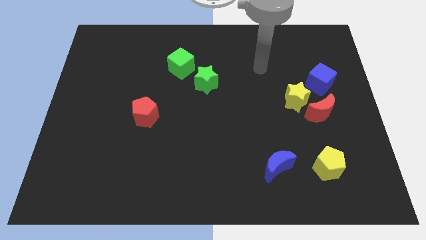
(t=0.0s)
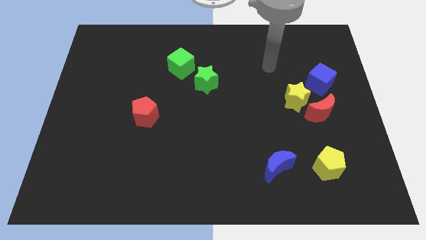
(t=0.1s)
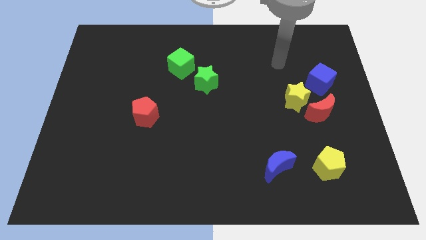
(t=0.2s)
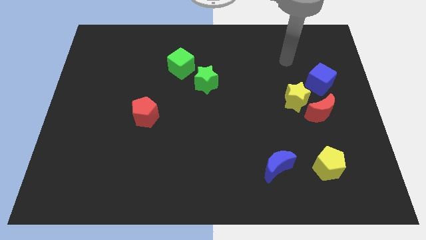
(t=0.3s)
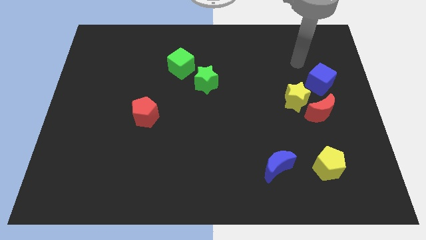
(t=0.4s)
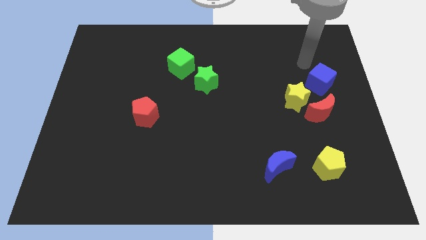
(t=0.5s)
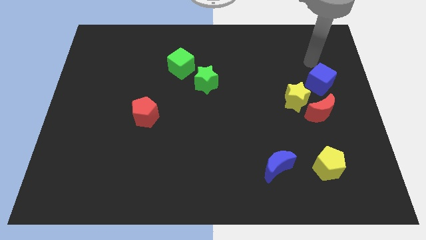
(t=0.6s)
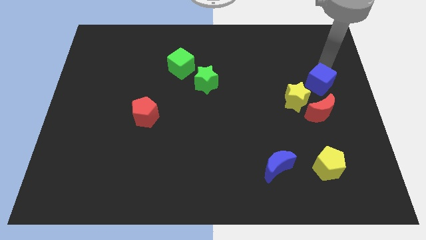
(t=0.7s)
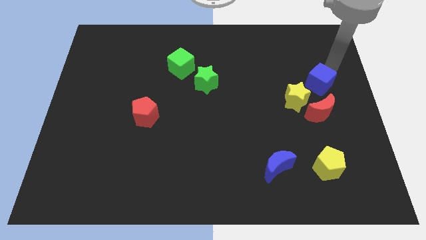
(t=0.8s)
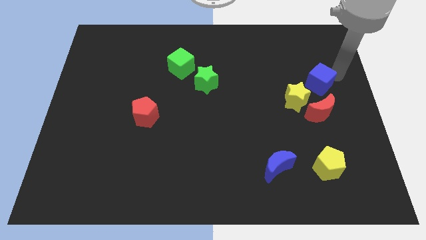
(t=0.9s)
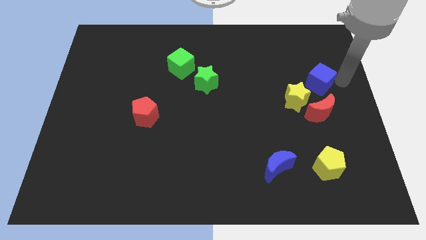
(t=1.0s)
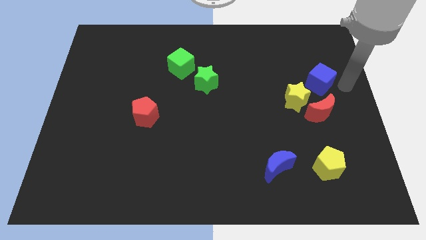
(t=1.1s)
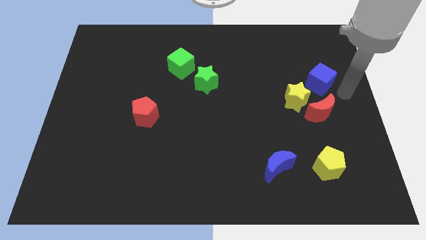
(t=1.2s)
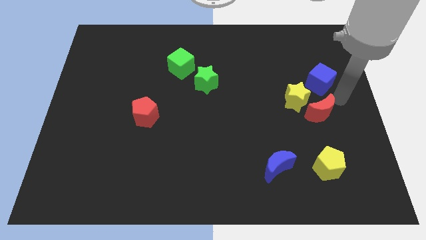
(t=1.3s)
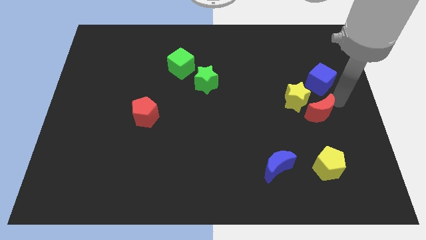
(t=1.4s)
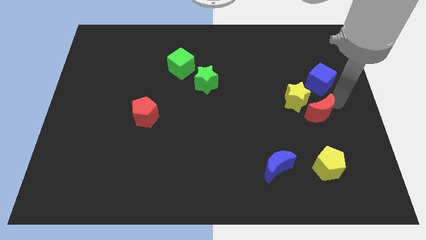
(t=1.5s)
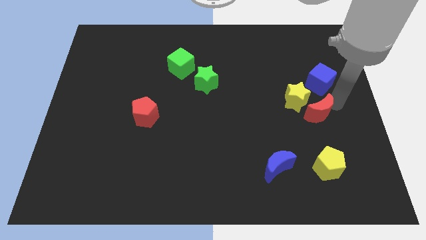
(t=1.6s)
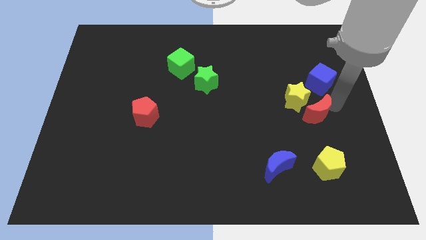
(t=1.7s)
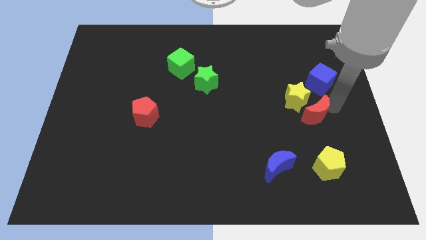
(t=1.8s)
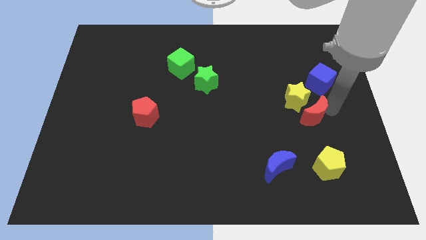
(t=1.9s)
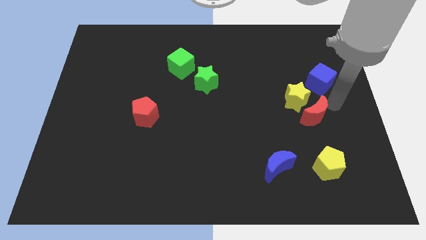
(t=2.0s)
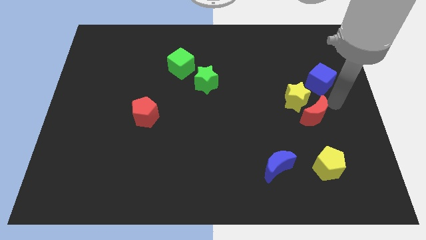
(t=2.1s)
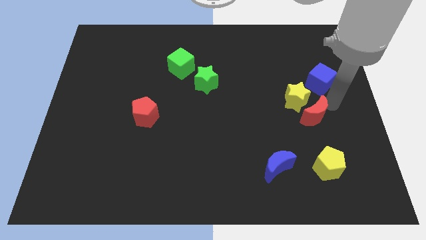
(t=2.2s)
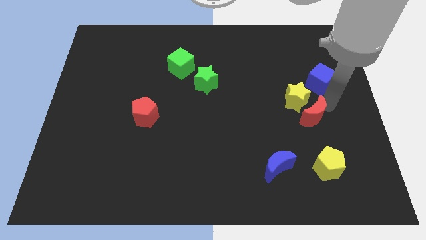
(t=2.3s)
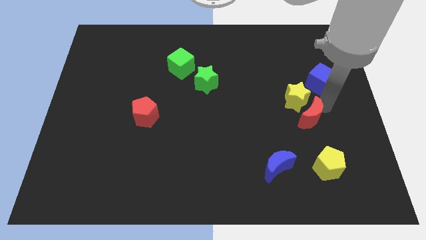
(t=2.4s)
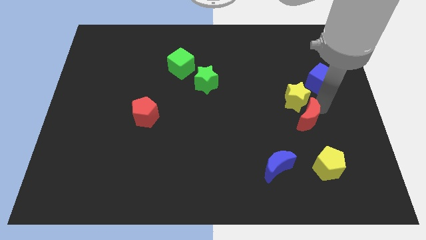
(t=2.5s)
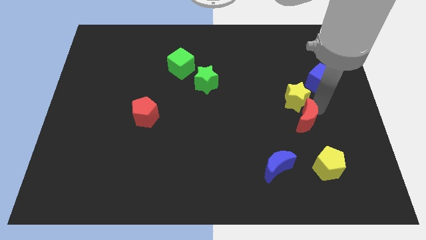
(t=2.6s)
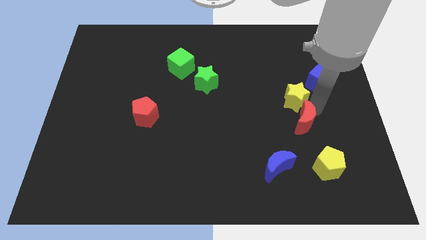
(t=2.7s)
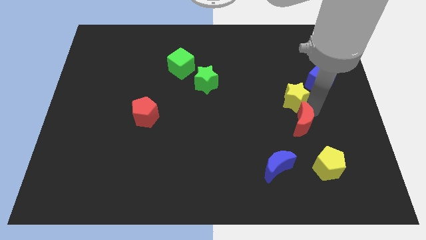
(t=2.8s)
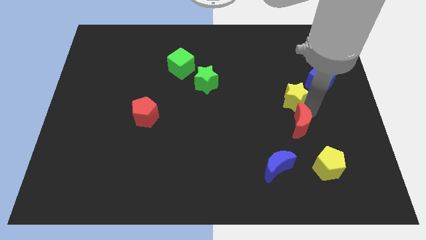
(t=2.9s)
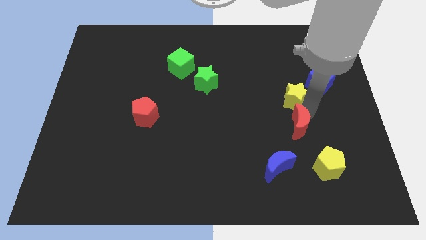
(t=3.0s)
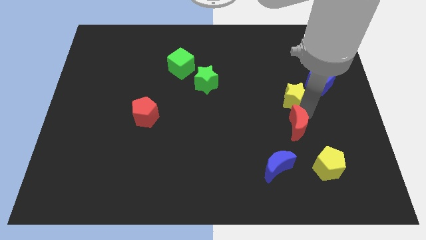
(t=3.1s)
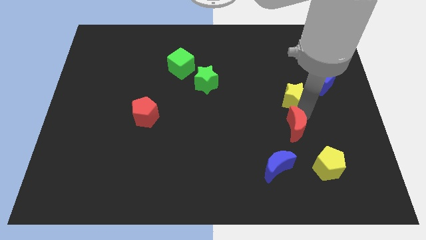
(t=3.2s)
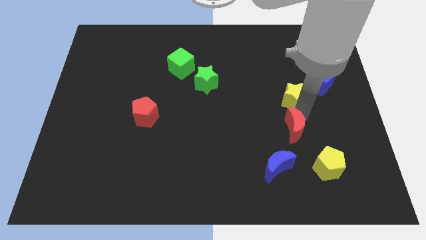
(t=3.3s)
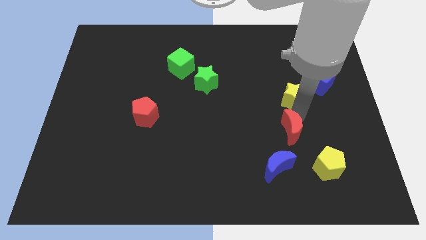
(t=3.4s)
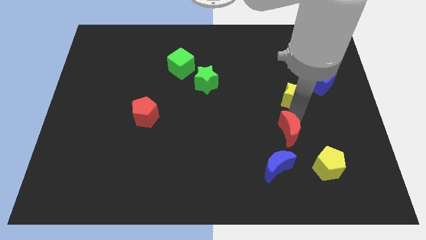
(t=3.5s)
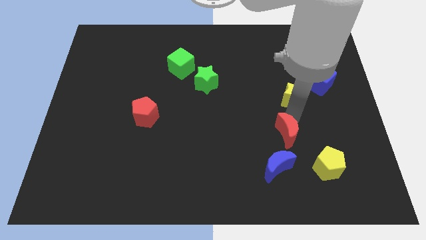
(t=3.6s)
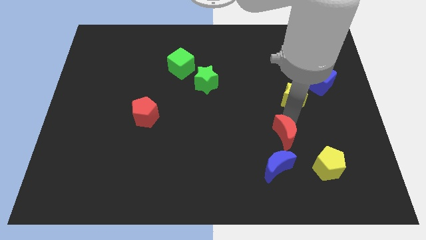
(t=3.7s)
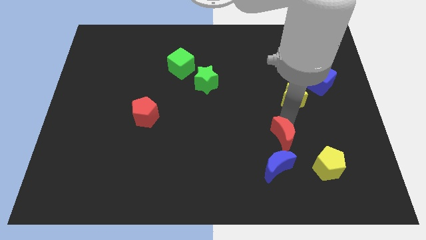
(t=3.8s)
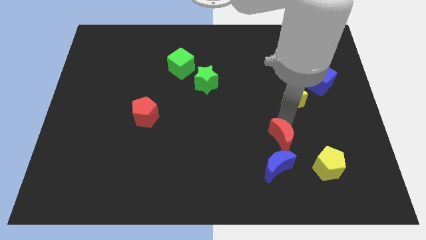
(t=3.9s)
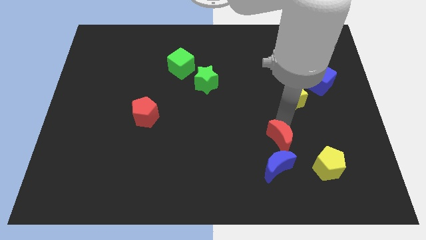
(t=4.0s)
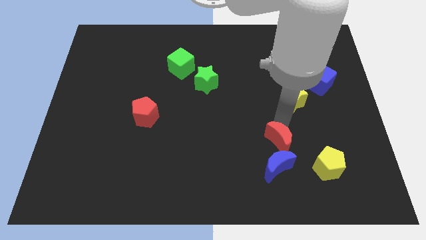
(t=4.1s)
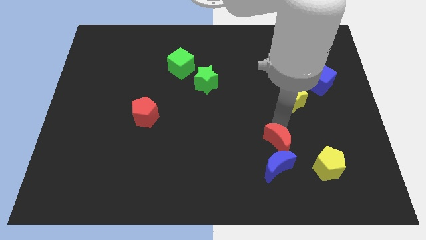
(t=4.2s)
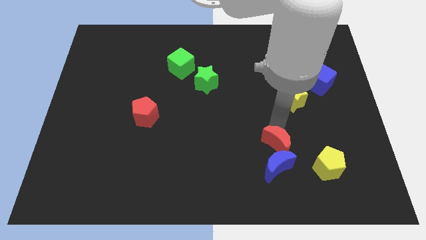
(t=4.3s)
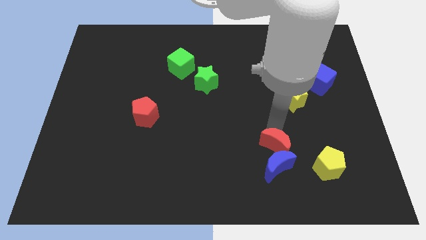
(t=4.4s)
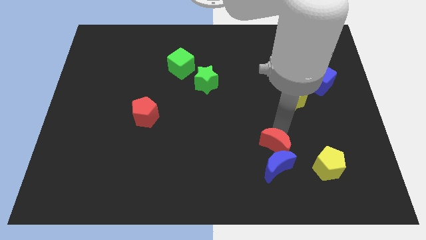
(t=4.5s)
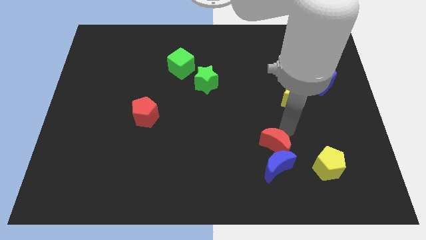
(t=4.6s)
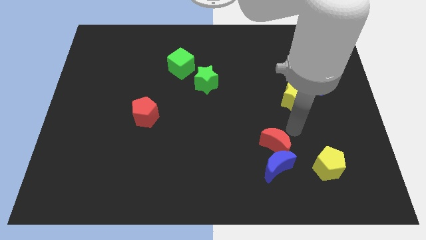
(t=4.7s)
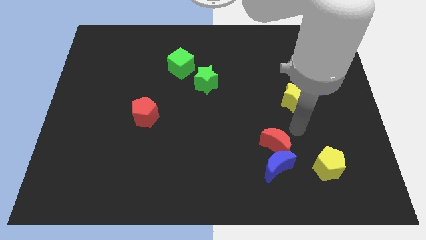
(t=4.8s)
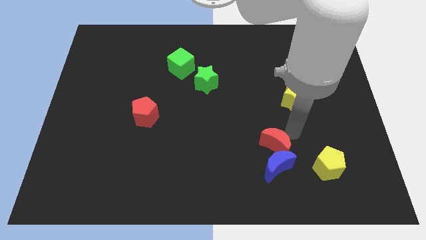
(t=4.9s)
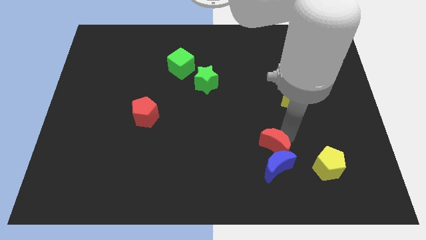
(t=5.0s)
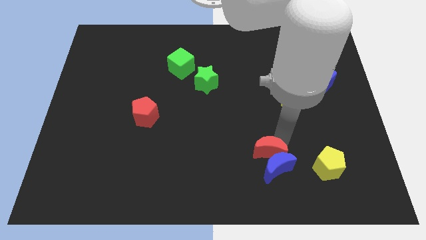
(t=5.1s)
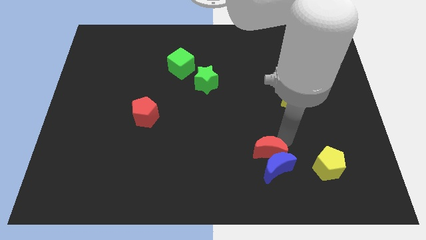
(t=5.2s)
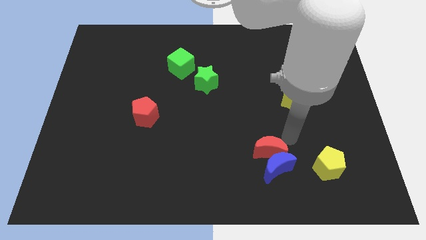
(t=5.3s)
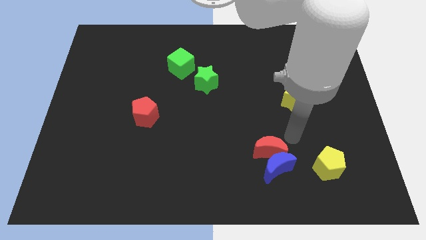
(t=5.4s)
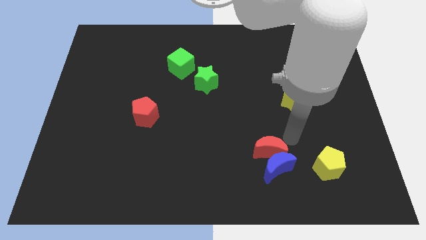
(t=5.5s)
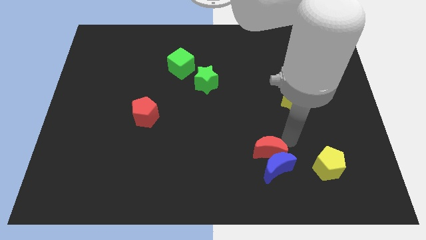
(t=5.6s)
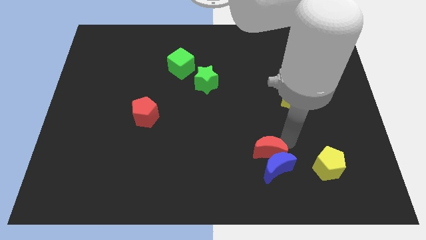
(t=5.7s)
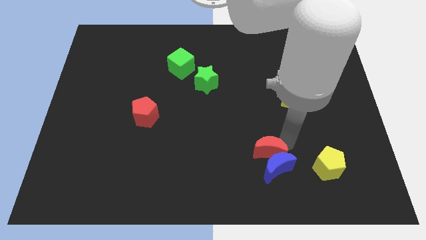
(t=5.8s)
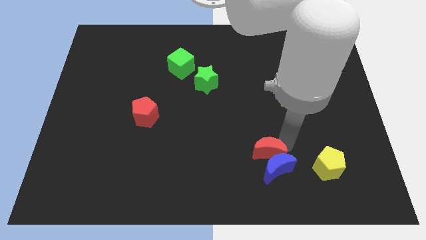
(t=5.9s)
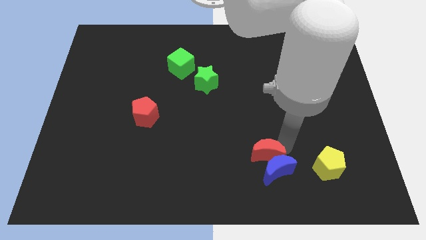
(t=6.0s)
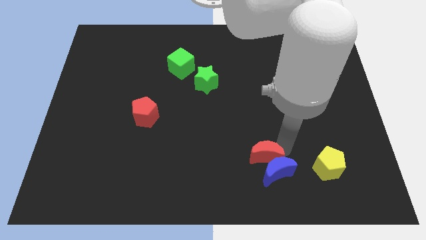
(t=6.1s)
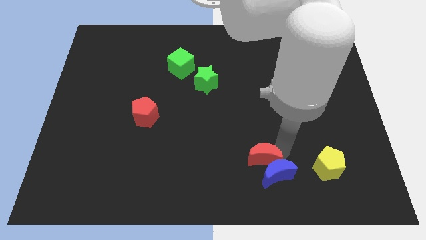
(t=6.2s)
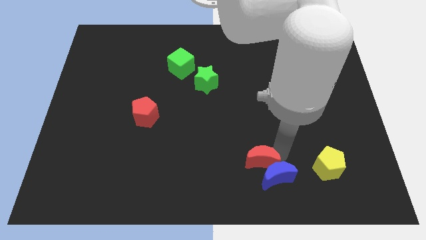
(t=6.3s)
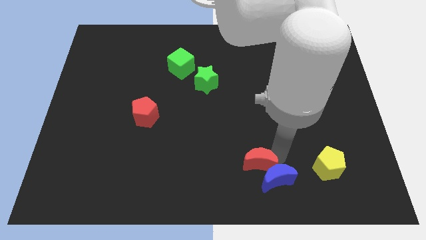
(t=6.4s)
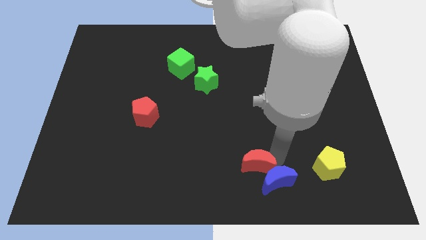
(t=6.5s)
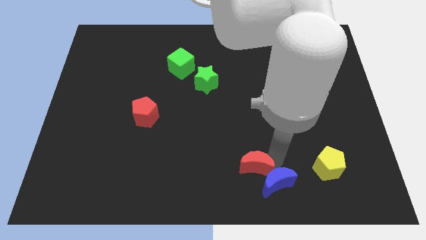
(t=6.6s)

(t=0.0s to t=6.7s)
move the red moon to the bottom side

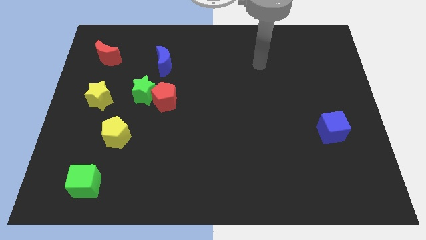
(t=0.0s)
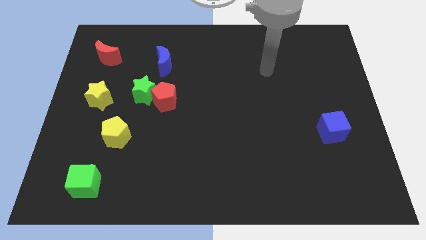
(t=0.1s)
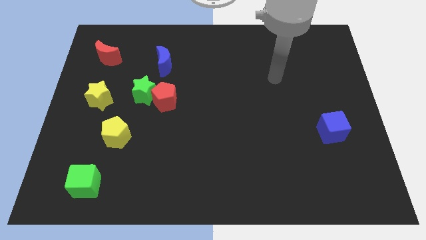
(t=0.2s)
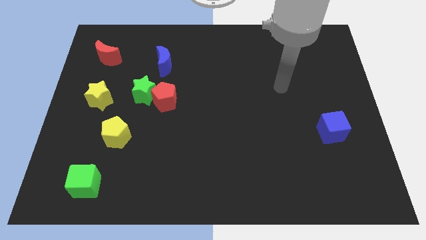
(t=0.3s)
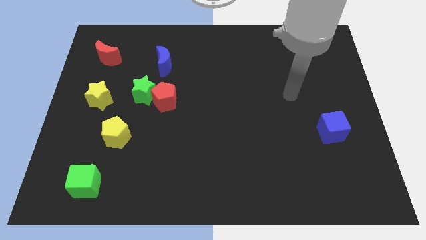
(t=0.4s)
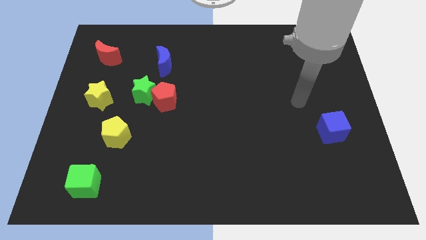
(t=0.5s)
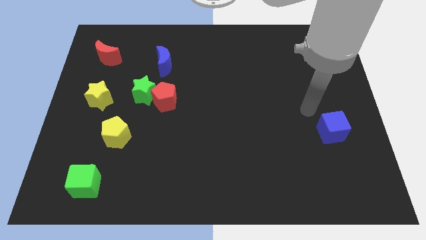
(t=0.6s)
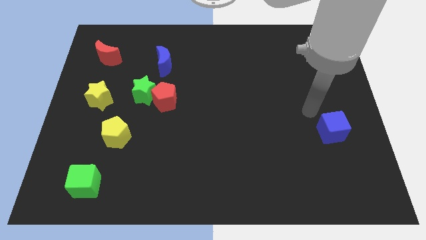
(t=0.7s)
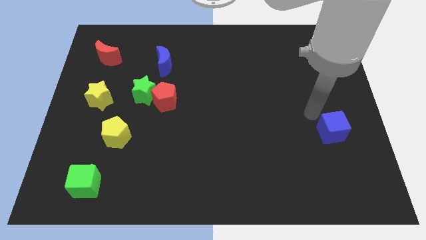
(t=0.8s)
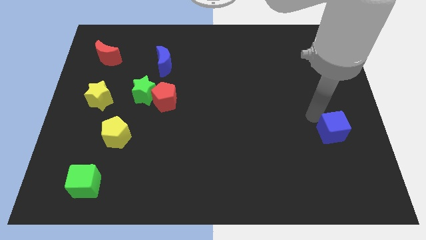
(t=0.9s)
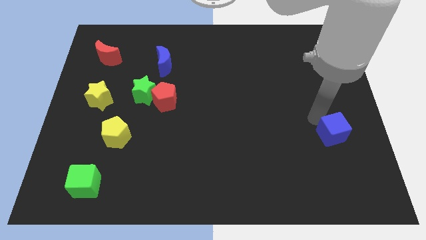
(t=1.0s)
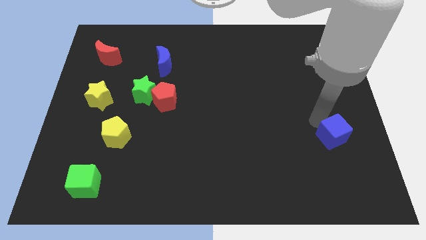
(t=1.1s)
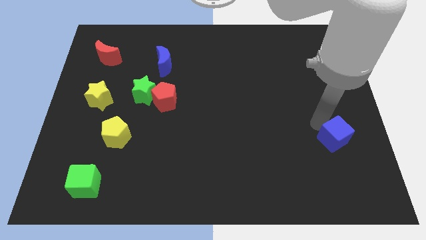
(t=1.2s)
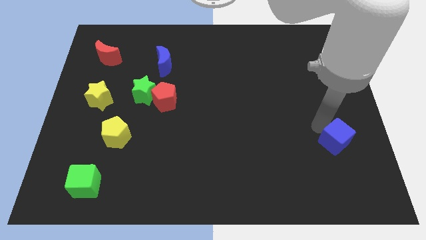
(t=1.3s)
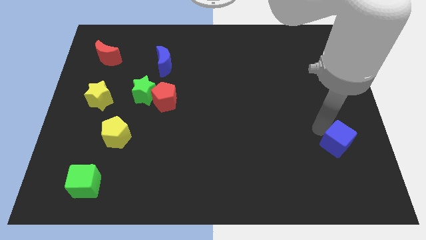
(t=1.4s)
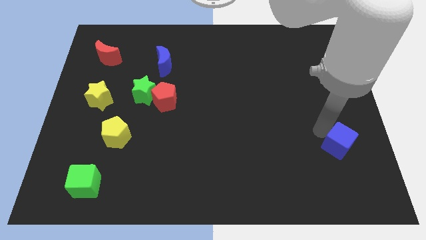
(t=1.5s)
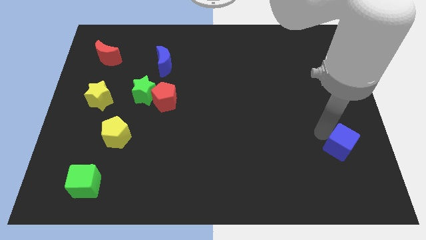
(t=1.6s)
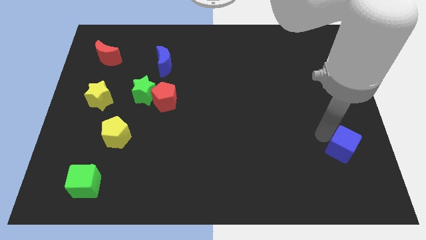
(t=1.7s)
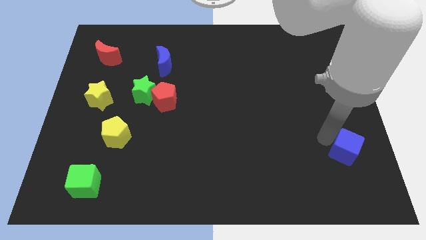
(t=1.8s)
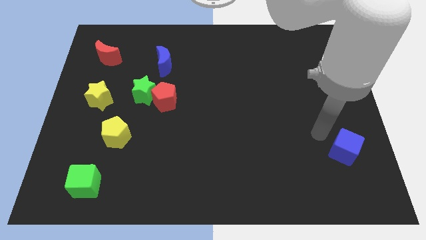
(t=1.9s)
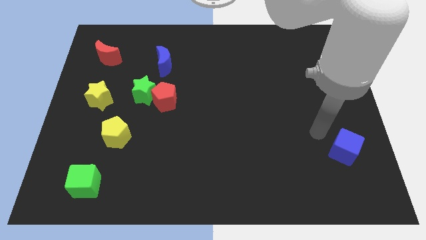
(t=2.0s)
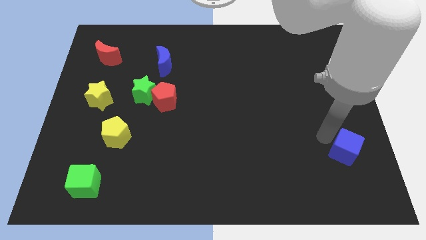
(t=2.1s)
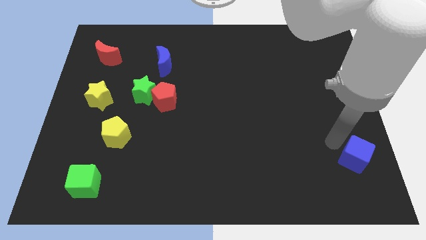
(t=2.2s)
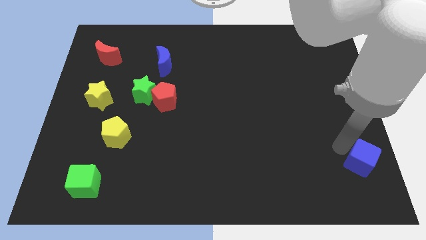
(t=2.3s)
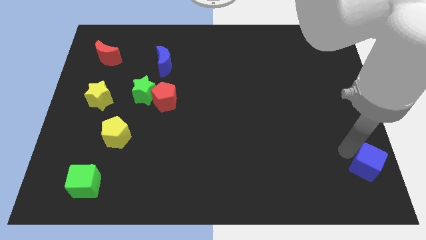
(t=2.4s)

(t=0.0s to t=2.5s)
move the blue cube to the bottom right of the board
